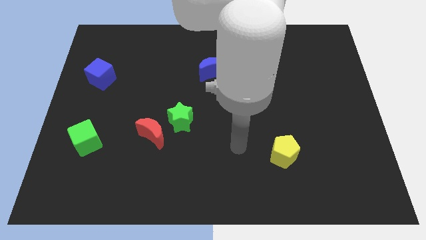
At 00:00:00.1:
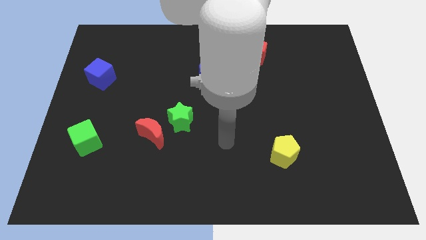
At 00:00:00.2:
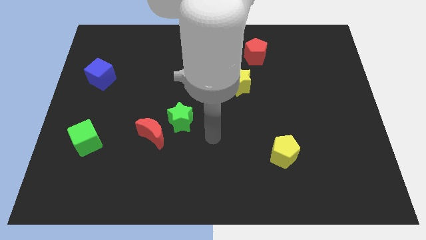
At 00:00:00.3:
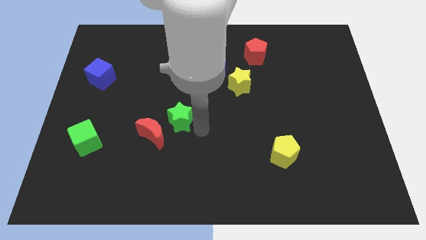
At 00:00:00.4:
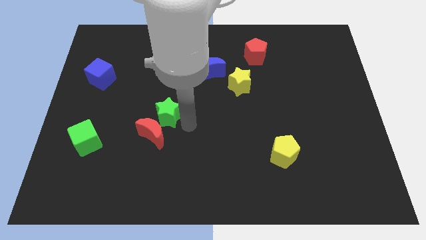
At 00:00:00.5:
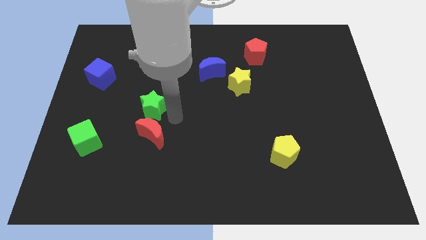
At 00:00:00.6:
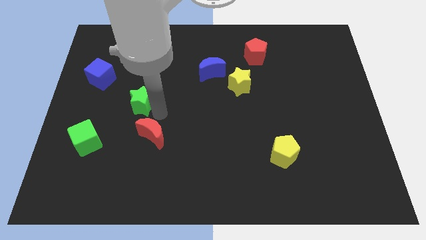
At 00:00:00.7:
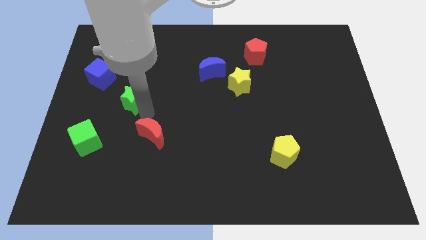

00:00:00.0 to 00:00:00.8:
move the red moon away from the green star

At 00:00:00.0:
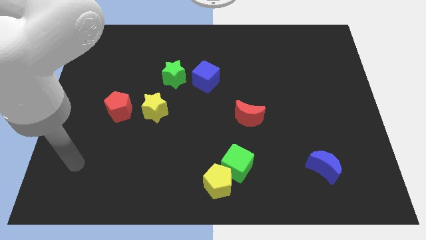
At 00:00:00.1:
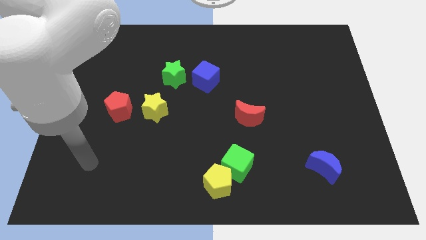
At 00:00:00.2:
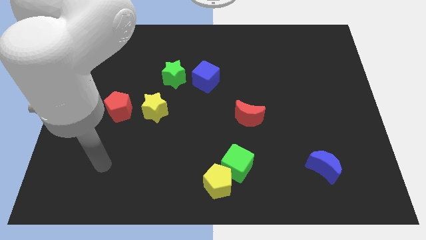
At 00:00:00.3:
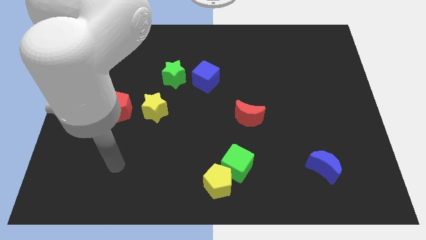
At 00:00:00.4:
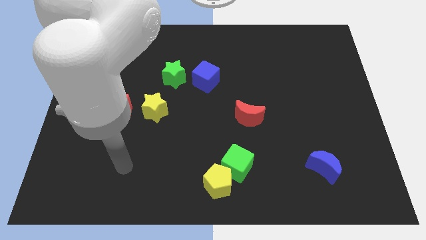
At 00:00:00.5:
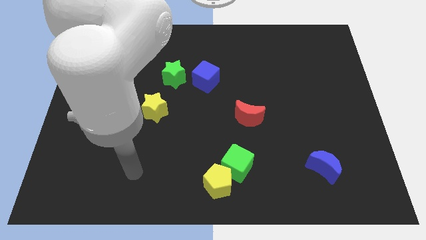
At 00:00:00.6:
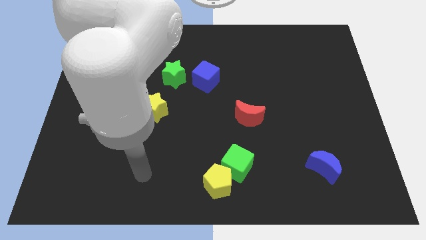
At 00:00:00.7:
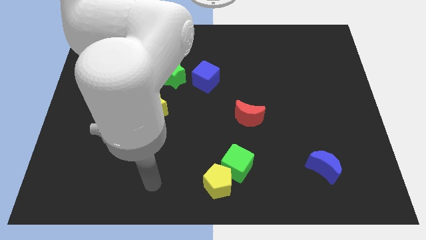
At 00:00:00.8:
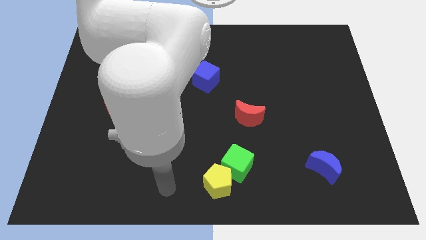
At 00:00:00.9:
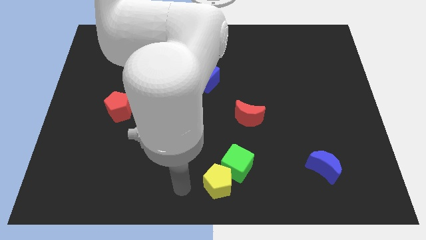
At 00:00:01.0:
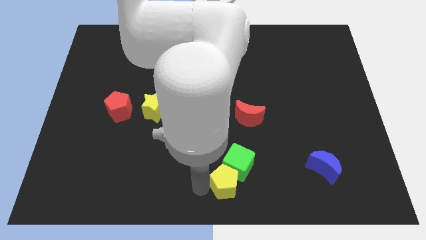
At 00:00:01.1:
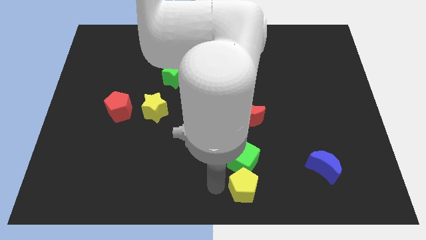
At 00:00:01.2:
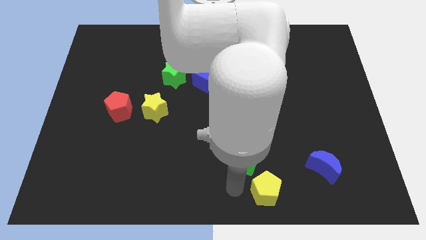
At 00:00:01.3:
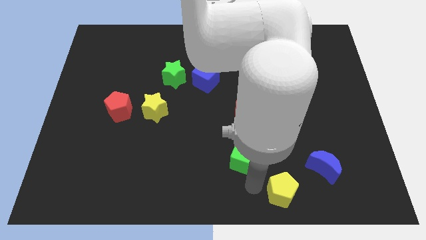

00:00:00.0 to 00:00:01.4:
pull the green cube apart from the yellow pentagon

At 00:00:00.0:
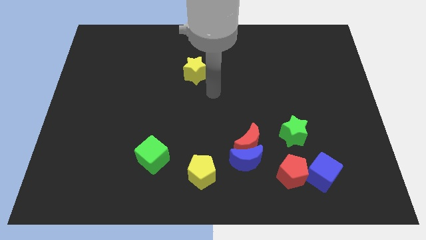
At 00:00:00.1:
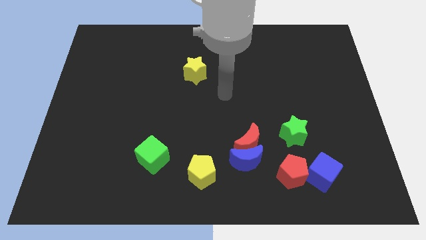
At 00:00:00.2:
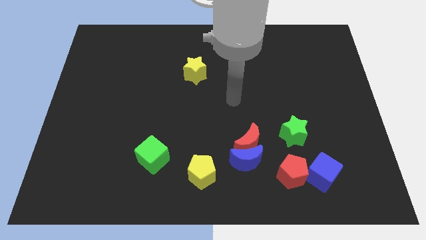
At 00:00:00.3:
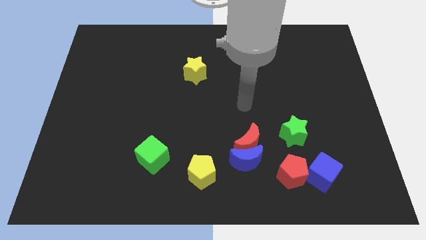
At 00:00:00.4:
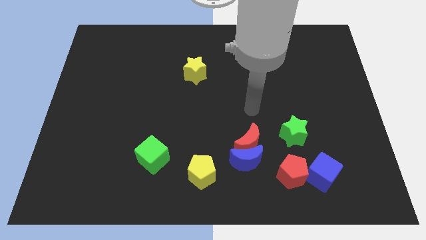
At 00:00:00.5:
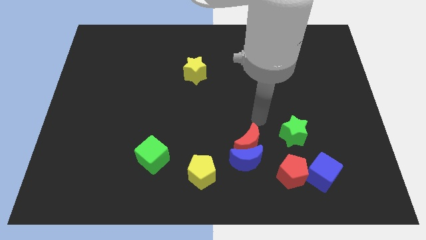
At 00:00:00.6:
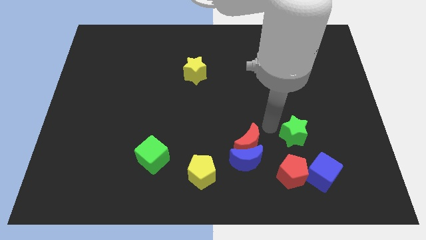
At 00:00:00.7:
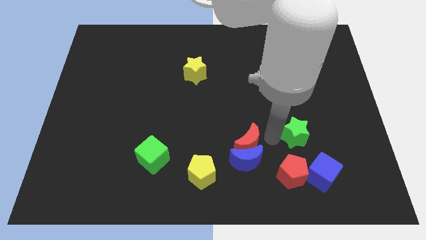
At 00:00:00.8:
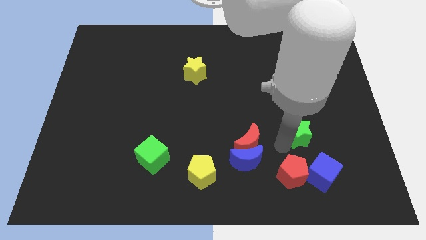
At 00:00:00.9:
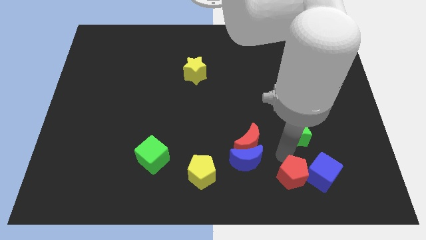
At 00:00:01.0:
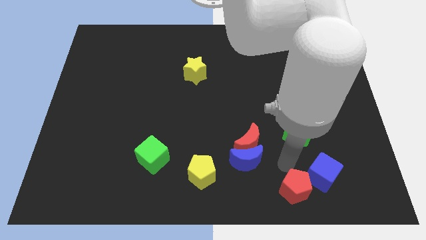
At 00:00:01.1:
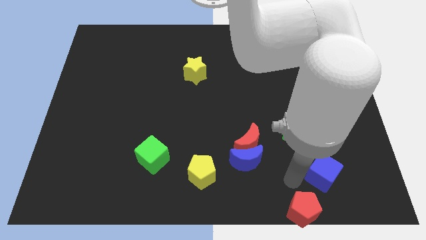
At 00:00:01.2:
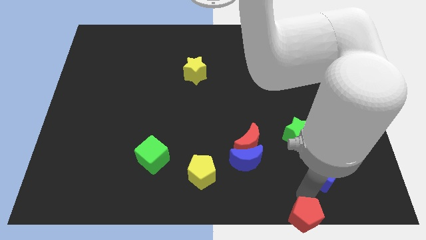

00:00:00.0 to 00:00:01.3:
pull the blue cube apart from the red pentagon

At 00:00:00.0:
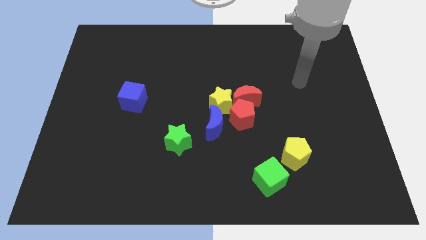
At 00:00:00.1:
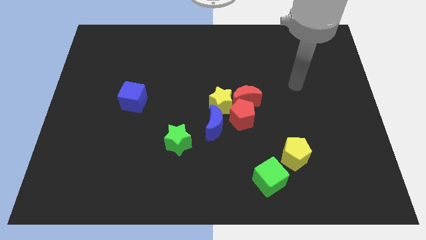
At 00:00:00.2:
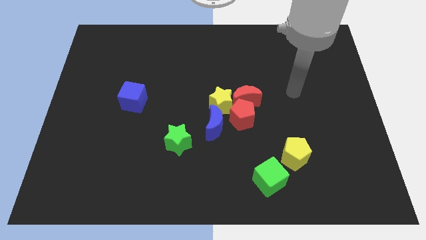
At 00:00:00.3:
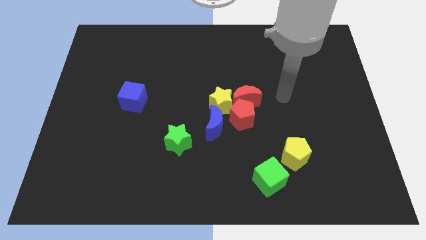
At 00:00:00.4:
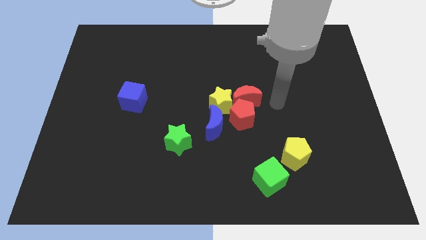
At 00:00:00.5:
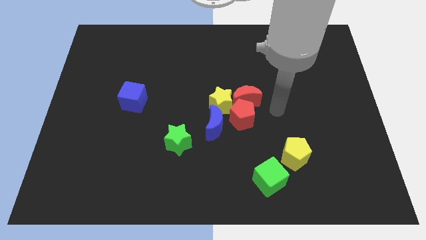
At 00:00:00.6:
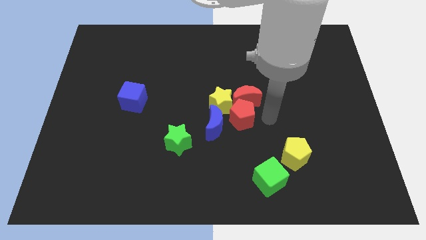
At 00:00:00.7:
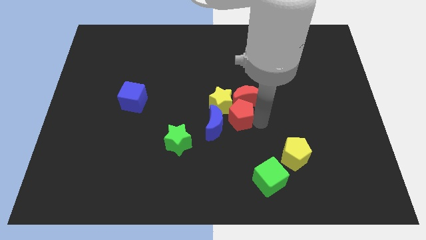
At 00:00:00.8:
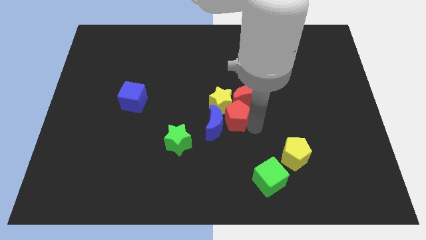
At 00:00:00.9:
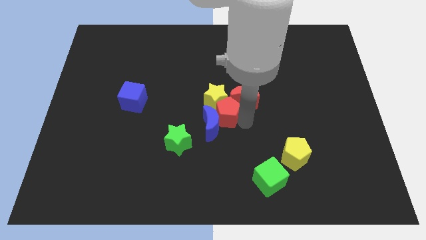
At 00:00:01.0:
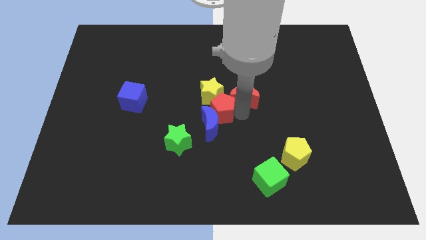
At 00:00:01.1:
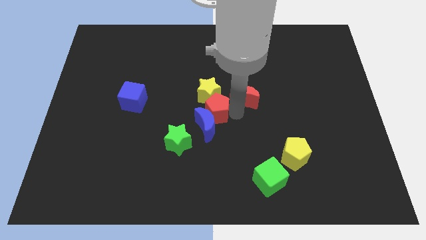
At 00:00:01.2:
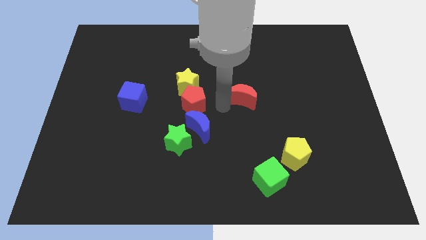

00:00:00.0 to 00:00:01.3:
move the red moon away from the red pentagon and yellow star

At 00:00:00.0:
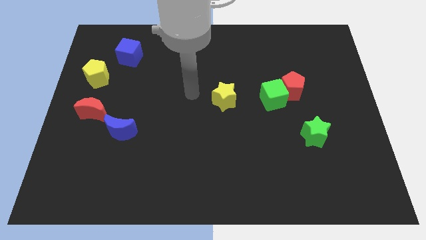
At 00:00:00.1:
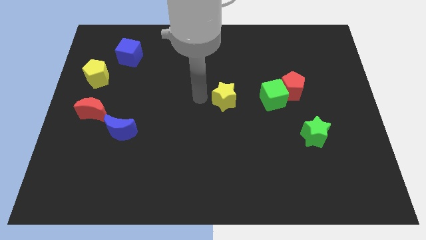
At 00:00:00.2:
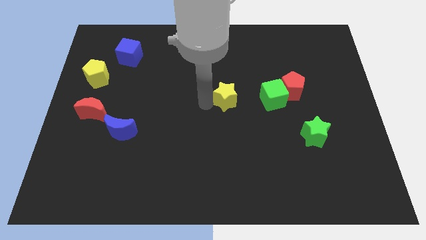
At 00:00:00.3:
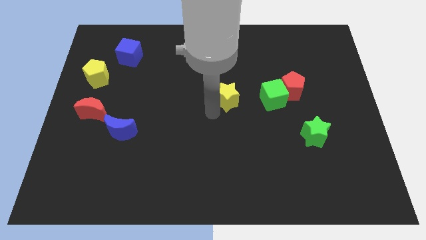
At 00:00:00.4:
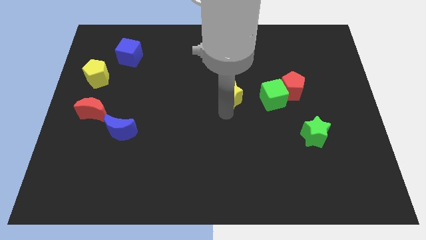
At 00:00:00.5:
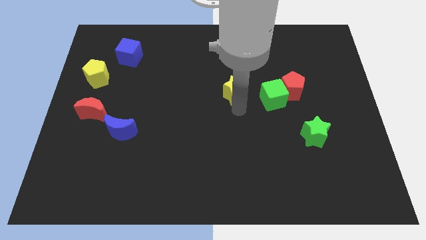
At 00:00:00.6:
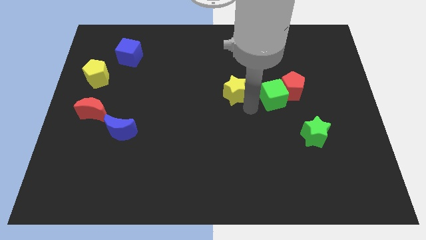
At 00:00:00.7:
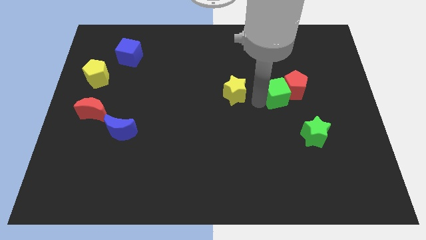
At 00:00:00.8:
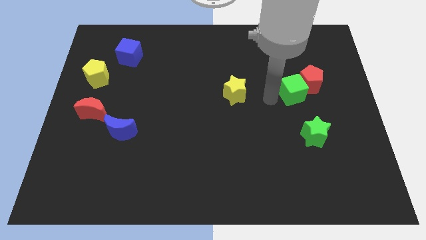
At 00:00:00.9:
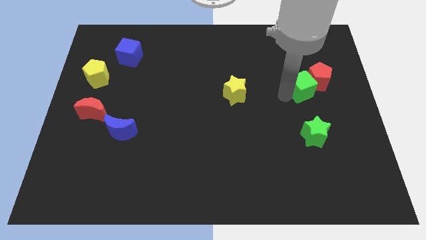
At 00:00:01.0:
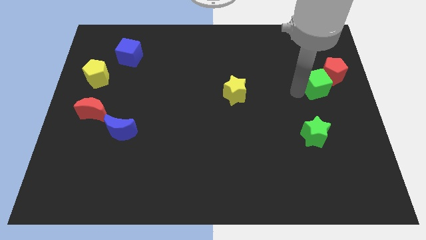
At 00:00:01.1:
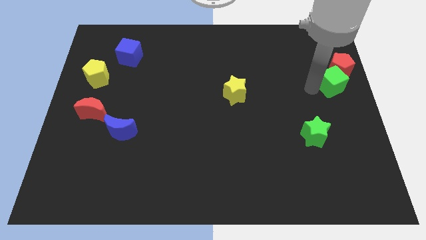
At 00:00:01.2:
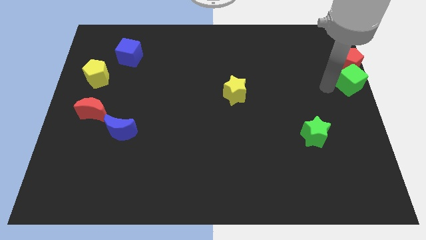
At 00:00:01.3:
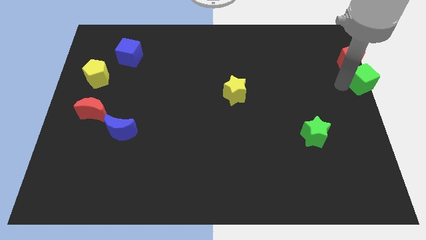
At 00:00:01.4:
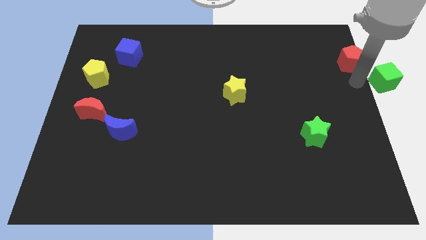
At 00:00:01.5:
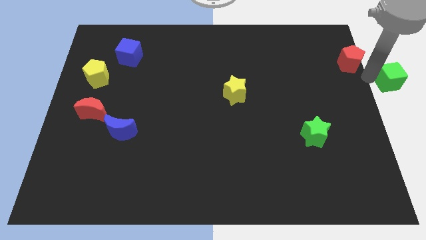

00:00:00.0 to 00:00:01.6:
separate the red pentagon from the green cube

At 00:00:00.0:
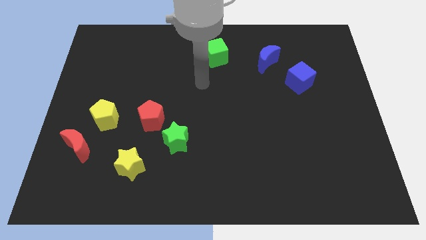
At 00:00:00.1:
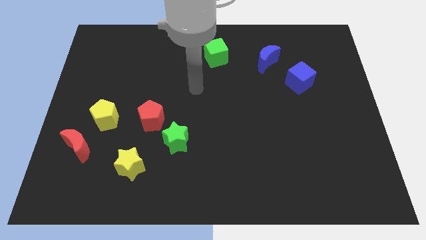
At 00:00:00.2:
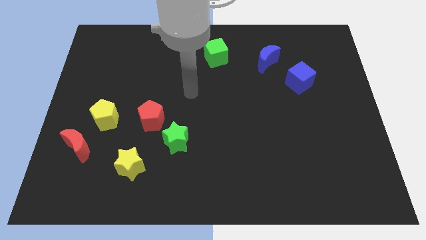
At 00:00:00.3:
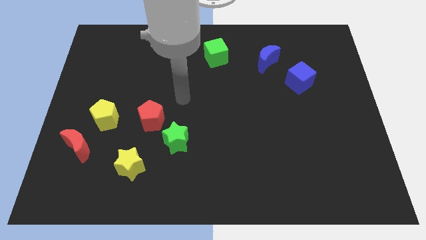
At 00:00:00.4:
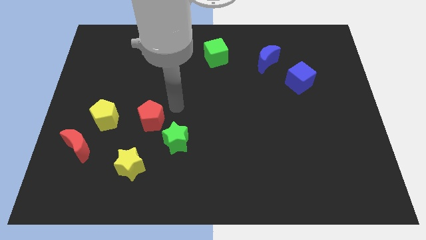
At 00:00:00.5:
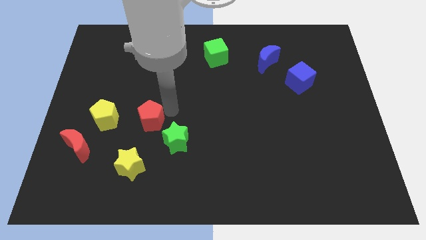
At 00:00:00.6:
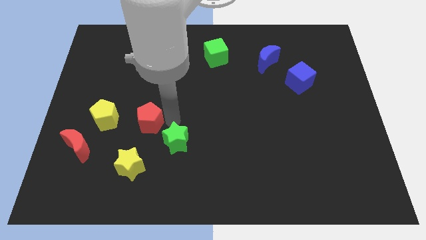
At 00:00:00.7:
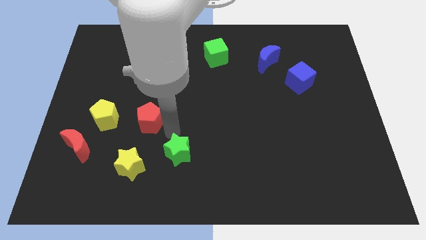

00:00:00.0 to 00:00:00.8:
pull the red pentagon apart from the green star

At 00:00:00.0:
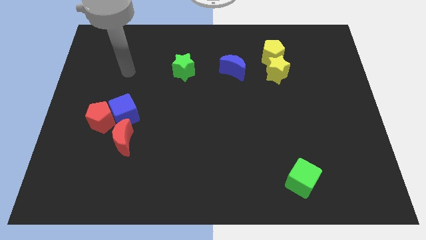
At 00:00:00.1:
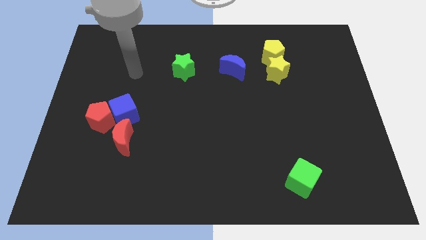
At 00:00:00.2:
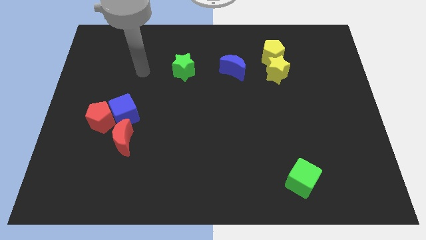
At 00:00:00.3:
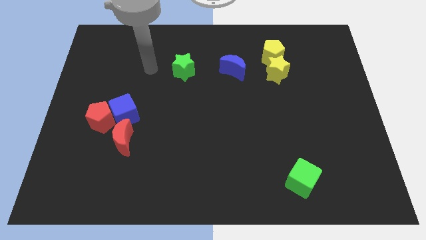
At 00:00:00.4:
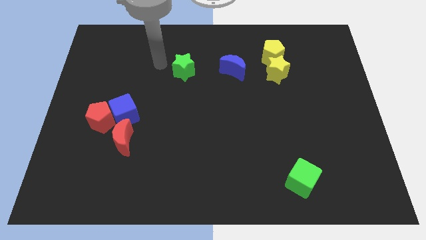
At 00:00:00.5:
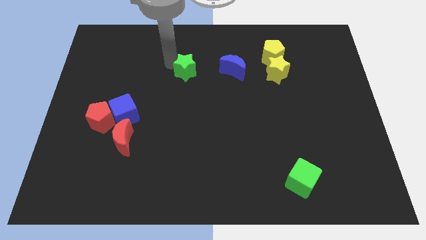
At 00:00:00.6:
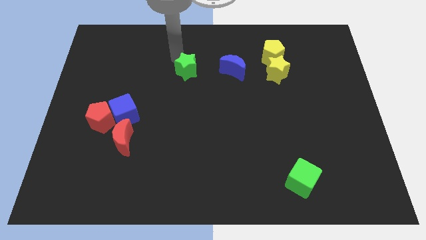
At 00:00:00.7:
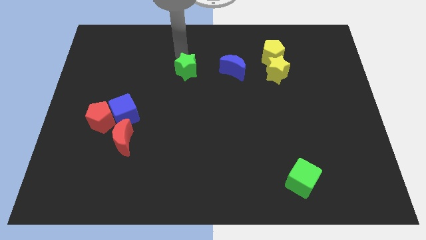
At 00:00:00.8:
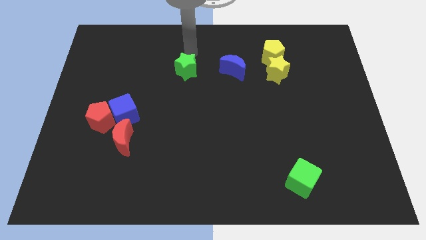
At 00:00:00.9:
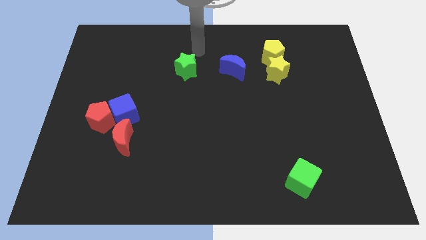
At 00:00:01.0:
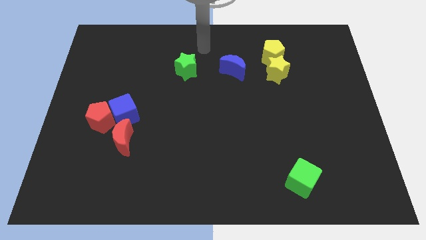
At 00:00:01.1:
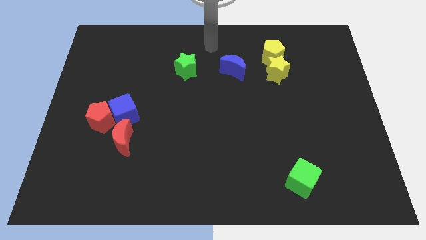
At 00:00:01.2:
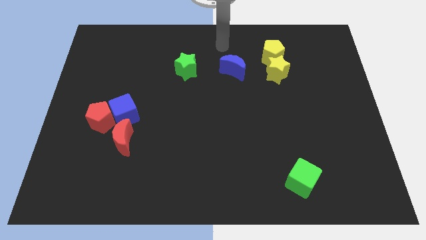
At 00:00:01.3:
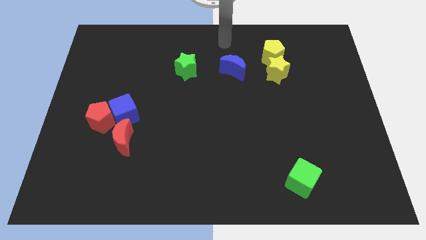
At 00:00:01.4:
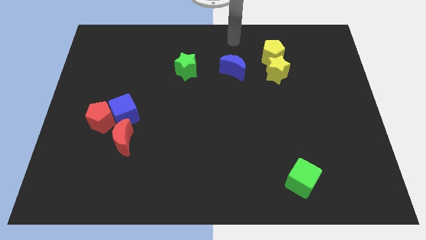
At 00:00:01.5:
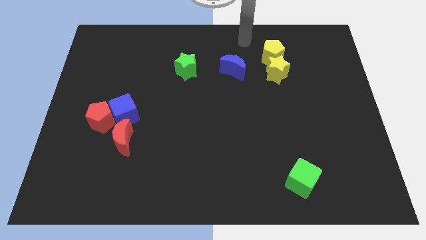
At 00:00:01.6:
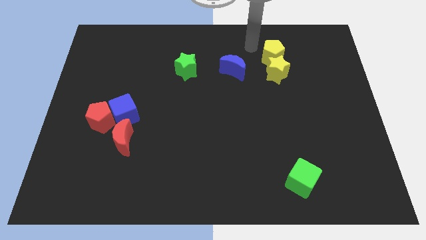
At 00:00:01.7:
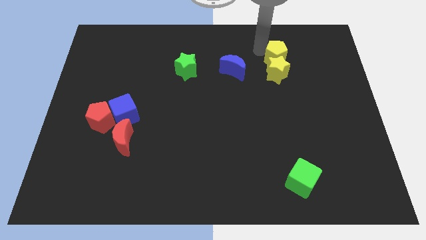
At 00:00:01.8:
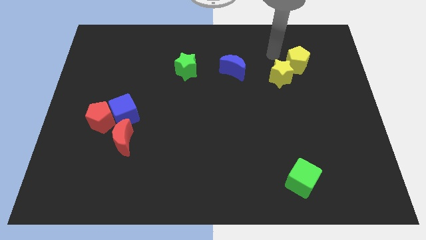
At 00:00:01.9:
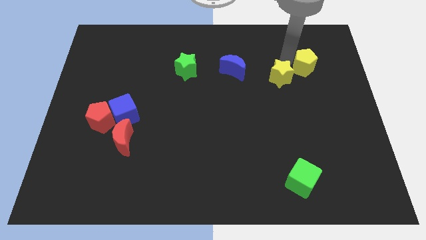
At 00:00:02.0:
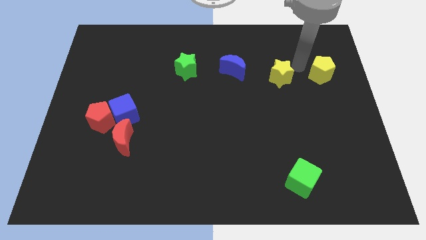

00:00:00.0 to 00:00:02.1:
move the yellow star away from the yellow pentagon
